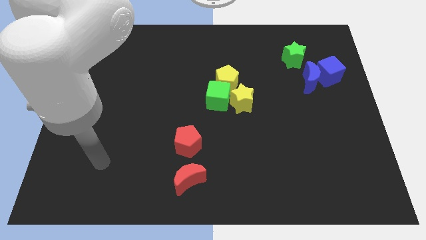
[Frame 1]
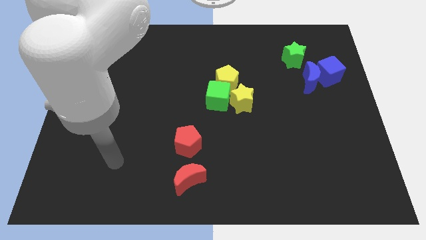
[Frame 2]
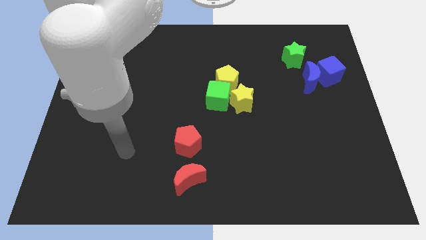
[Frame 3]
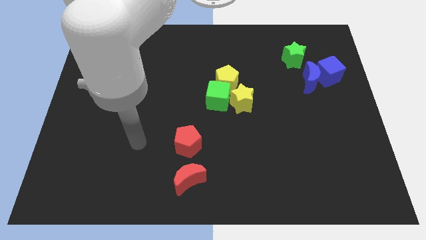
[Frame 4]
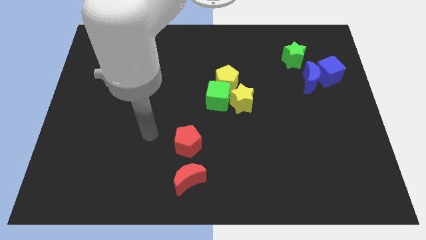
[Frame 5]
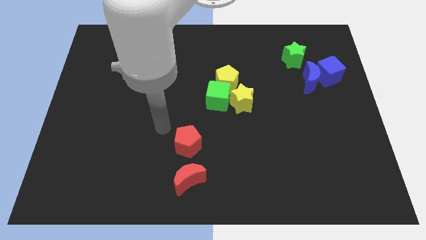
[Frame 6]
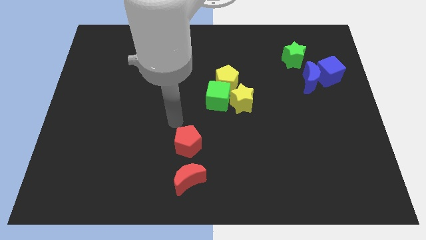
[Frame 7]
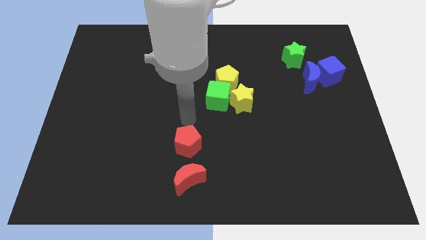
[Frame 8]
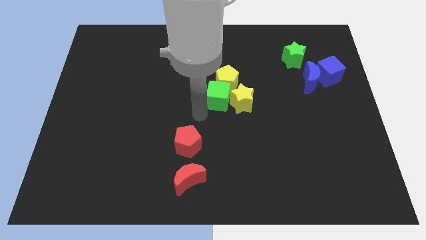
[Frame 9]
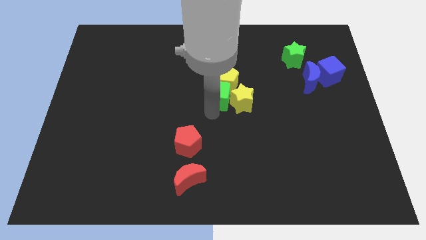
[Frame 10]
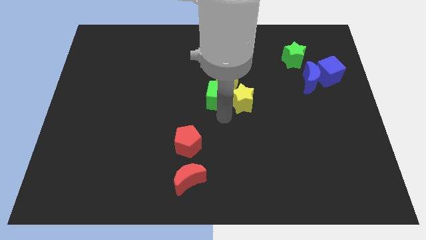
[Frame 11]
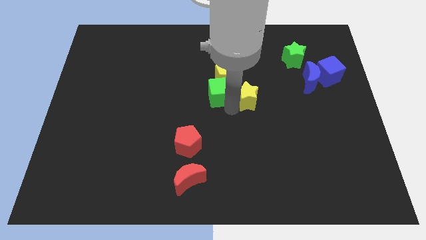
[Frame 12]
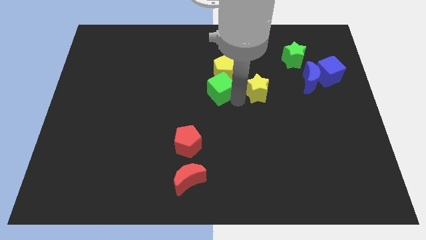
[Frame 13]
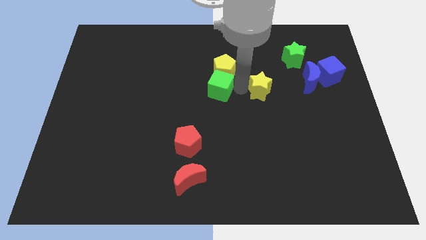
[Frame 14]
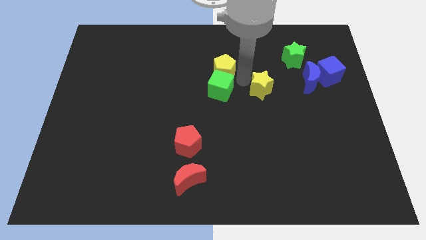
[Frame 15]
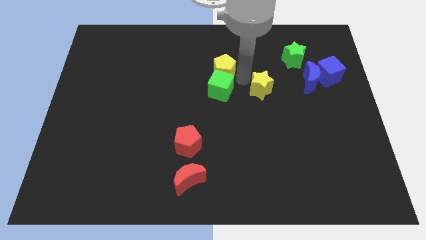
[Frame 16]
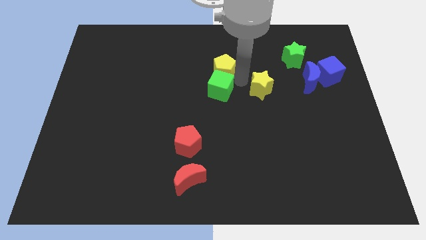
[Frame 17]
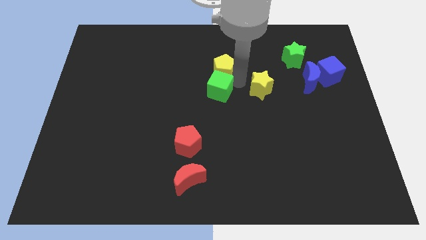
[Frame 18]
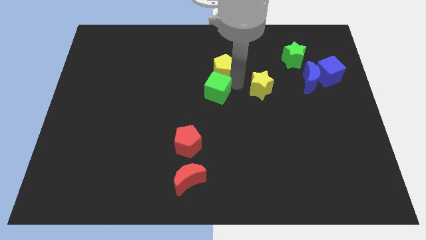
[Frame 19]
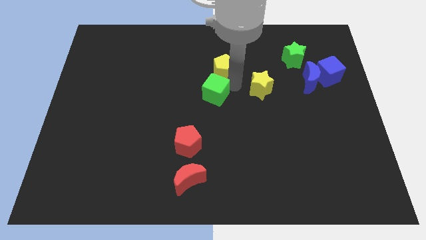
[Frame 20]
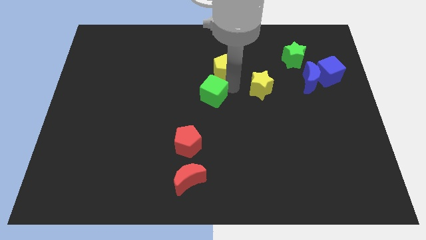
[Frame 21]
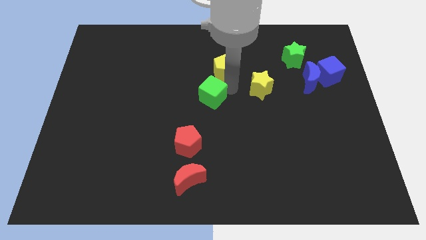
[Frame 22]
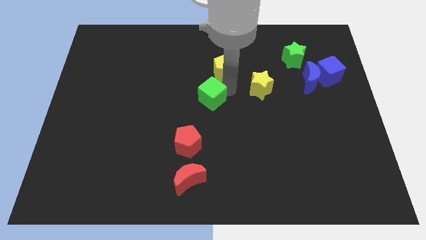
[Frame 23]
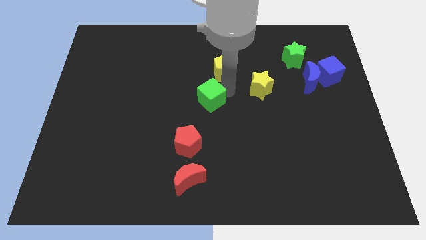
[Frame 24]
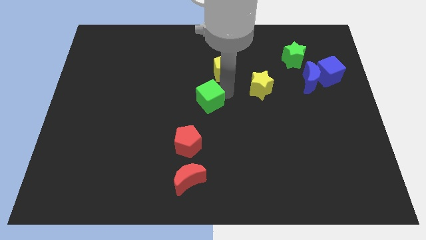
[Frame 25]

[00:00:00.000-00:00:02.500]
pull the green cube apart from the yellow pentagon and yellow star

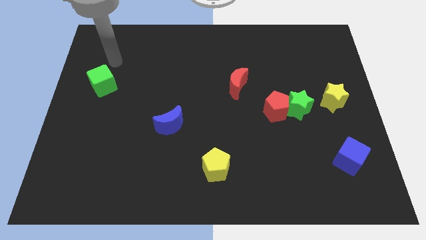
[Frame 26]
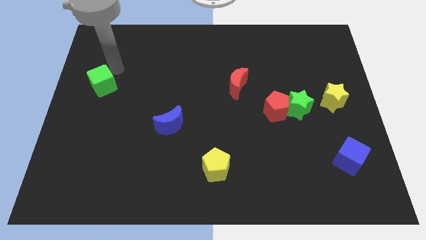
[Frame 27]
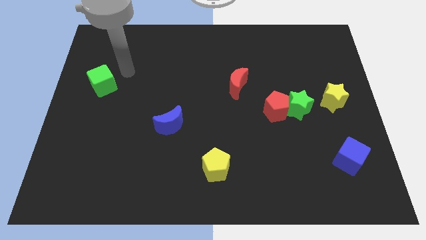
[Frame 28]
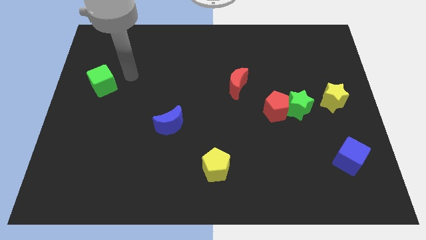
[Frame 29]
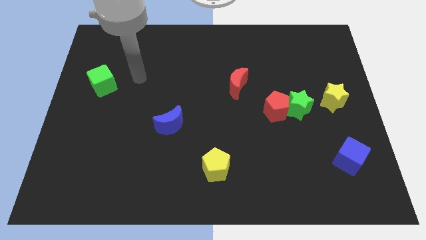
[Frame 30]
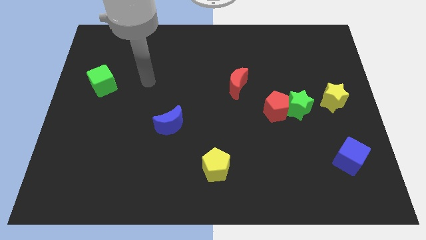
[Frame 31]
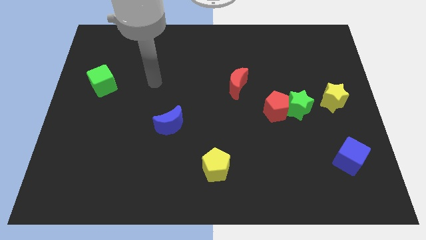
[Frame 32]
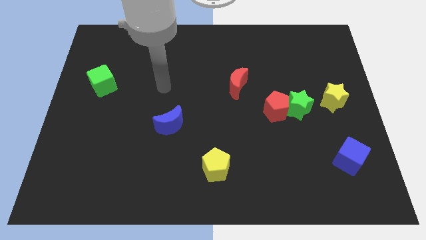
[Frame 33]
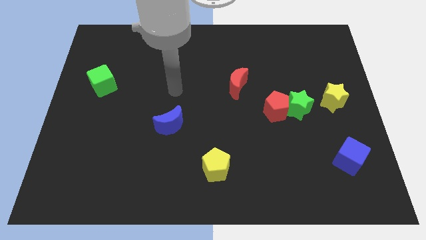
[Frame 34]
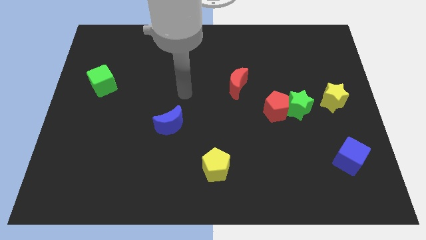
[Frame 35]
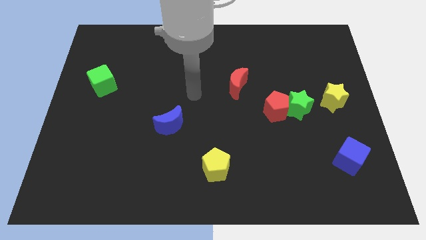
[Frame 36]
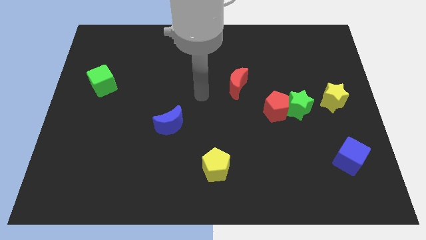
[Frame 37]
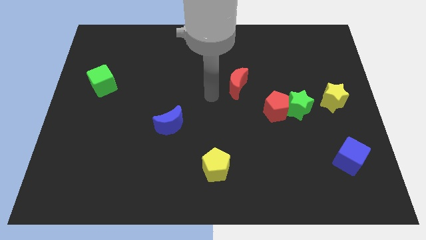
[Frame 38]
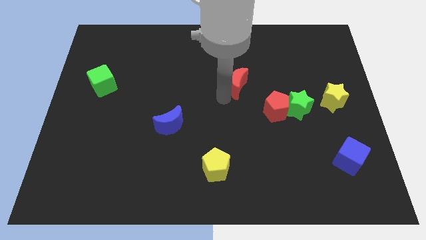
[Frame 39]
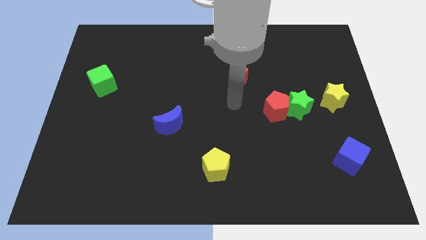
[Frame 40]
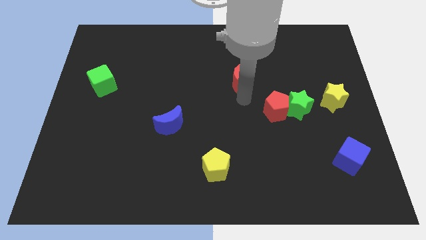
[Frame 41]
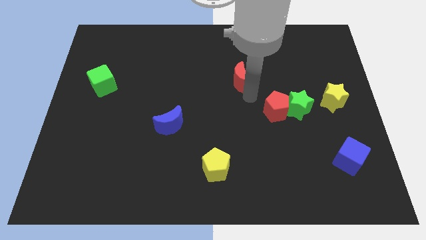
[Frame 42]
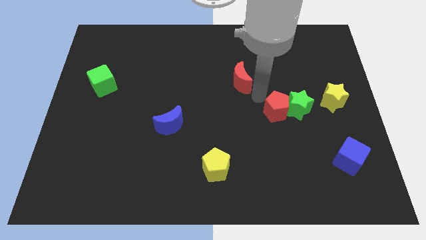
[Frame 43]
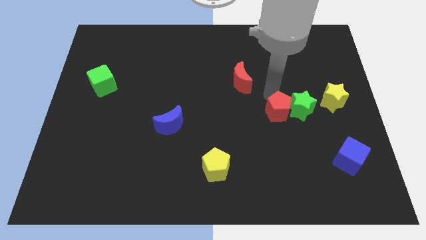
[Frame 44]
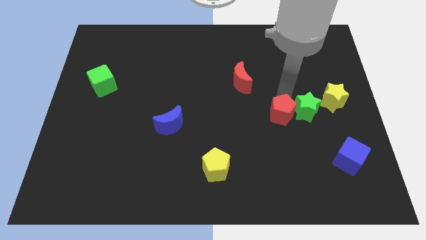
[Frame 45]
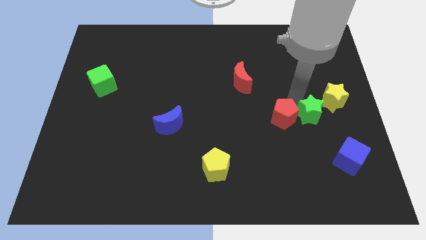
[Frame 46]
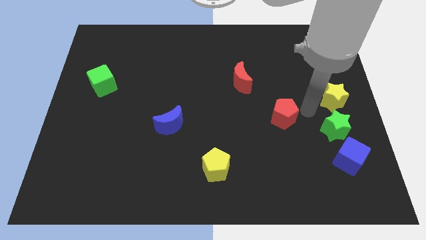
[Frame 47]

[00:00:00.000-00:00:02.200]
pull the red pentagon apart from the green star

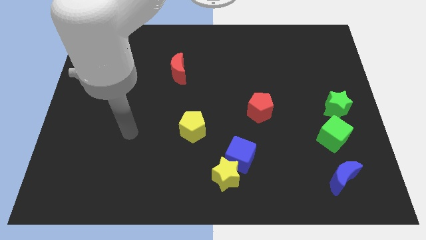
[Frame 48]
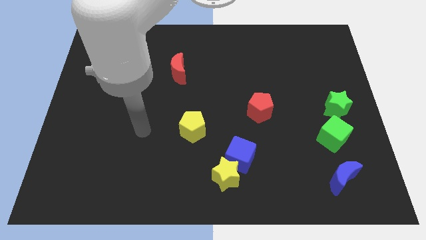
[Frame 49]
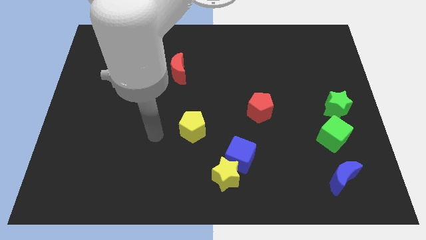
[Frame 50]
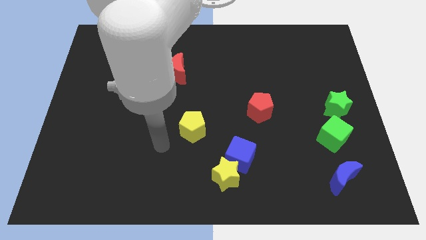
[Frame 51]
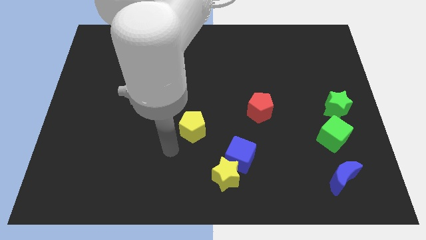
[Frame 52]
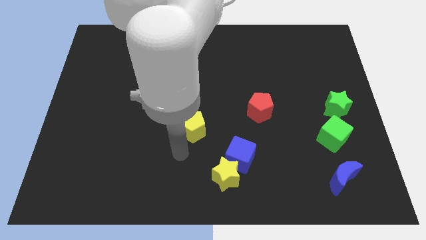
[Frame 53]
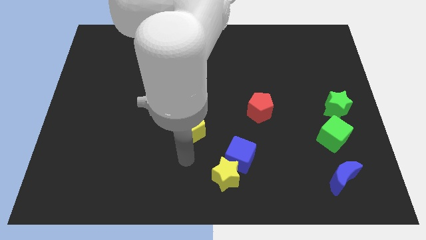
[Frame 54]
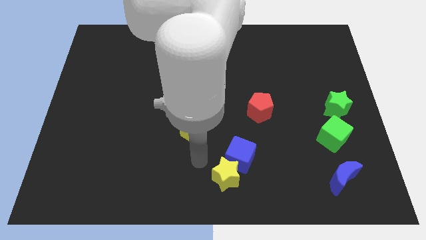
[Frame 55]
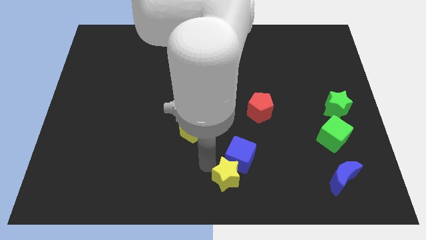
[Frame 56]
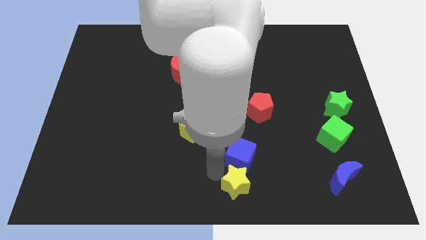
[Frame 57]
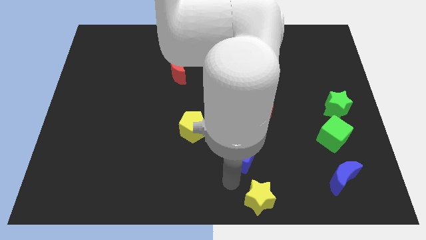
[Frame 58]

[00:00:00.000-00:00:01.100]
separate the blue cube from the yellow star

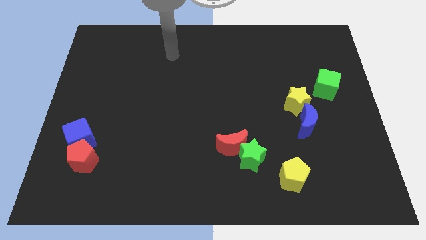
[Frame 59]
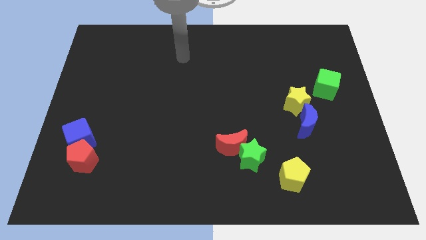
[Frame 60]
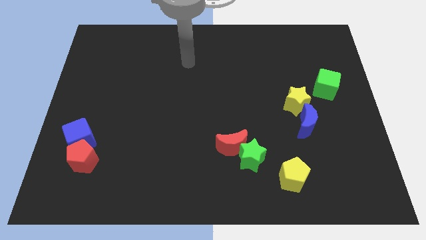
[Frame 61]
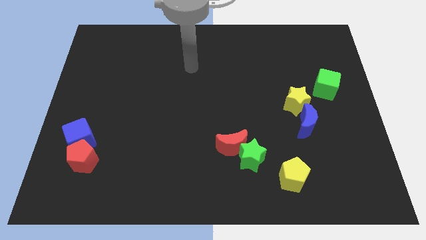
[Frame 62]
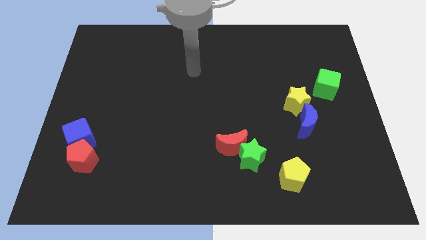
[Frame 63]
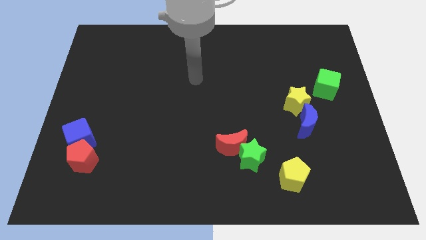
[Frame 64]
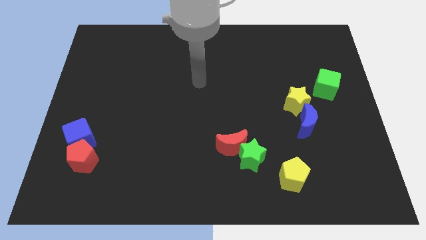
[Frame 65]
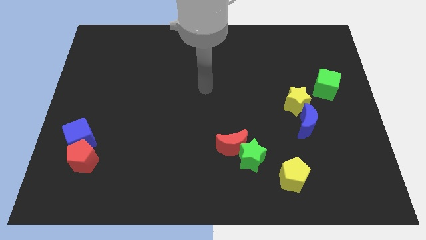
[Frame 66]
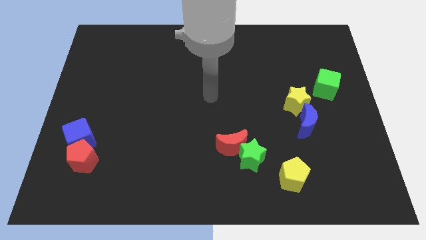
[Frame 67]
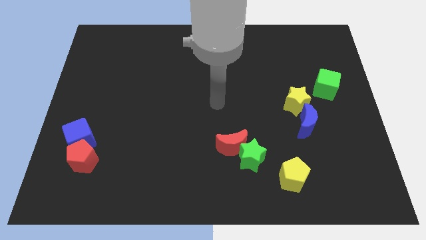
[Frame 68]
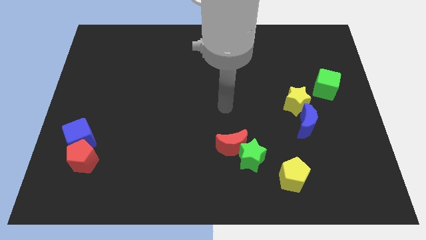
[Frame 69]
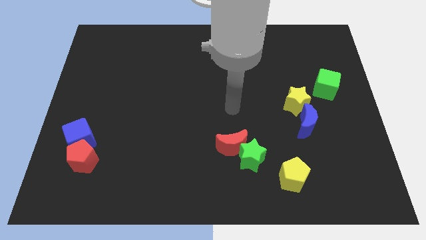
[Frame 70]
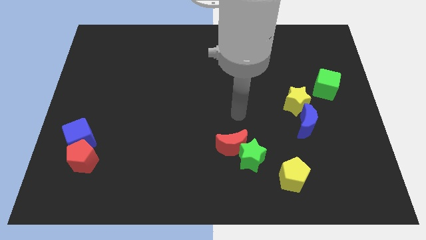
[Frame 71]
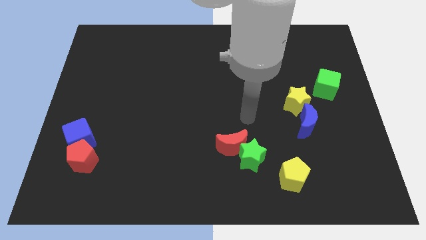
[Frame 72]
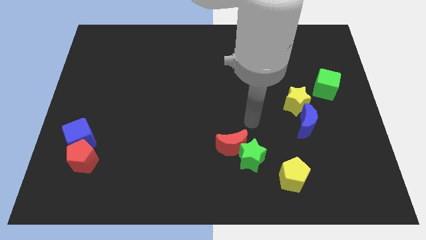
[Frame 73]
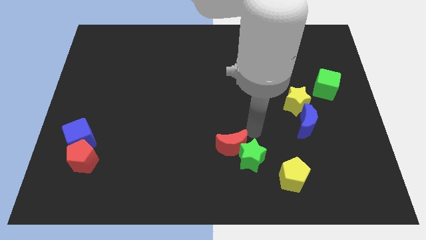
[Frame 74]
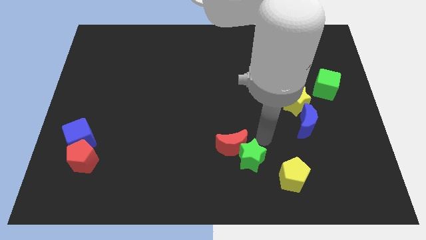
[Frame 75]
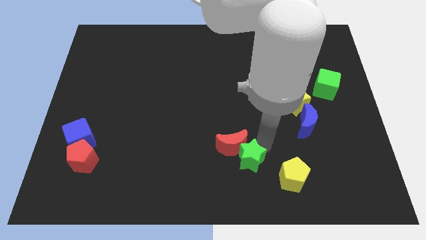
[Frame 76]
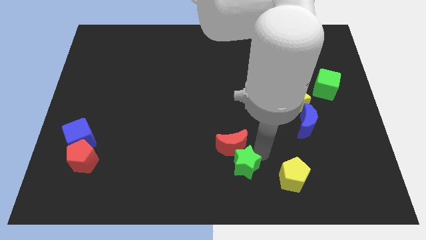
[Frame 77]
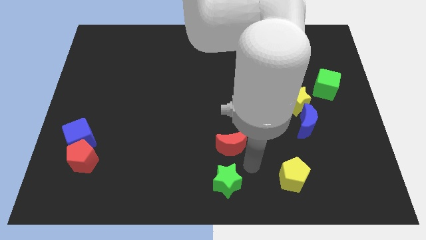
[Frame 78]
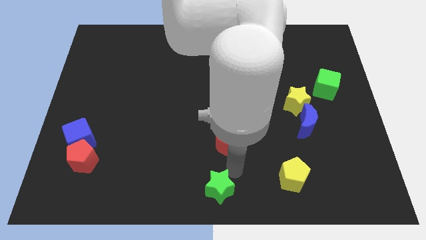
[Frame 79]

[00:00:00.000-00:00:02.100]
pull the red moon apart from the green star

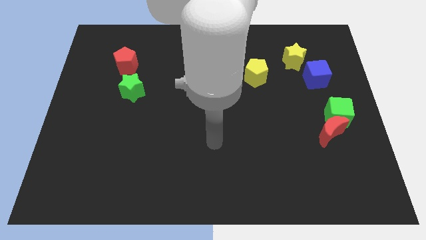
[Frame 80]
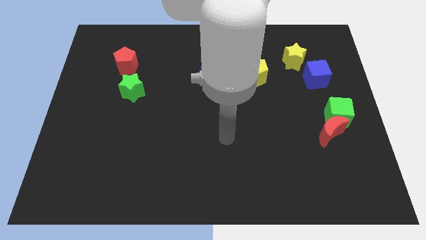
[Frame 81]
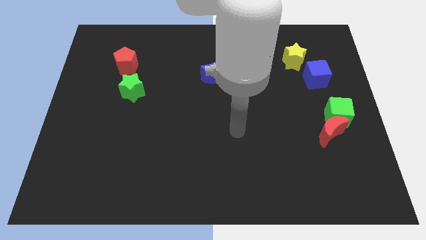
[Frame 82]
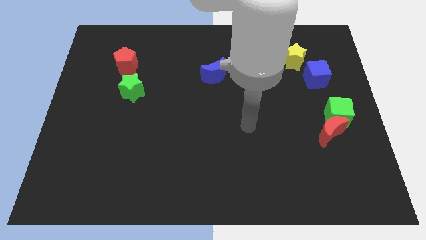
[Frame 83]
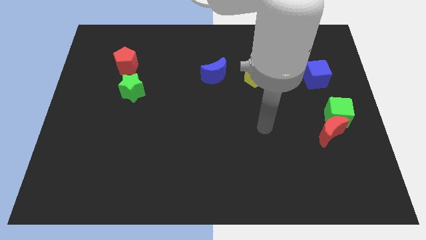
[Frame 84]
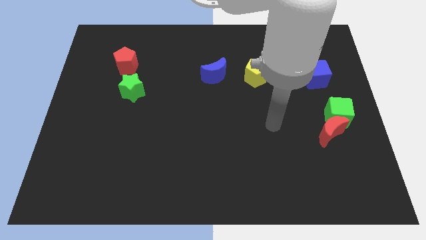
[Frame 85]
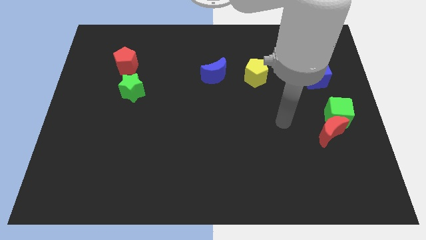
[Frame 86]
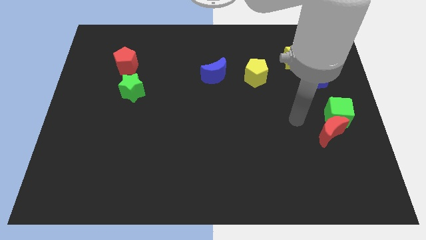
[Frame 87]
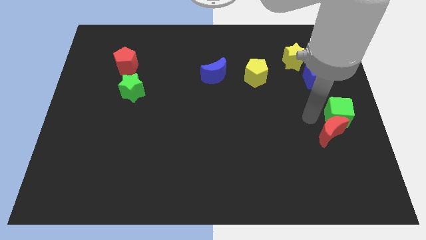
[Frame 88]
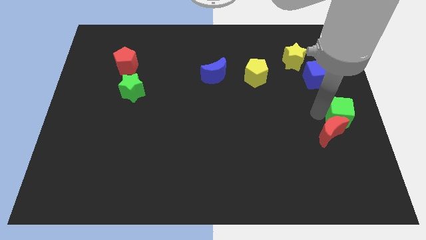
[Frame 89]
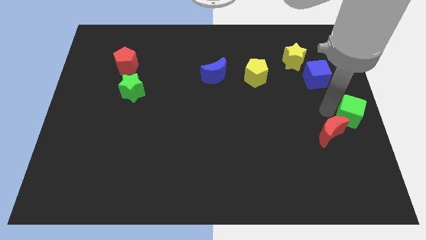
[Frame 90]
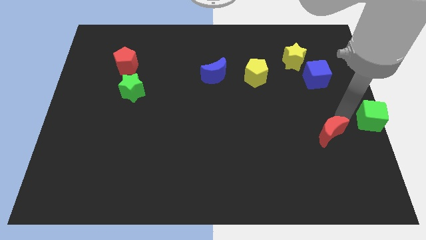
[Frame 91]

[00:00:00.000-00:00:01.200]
move the red moon away from the green cube
